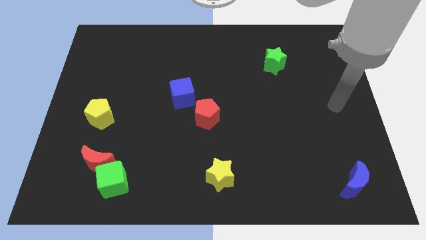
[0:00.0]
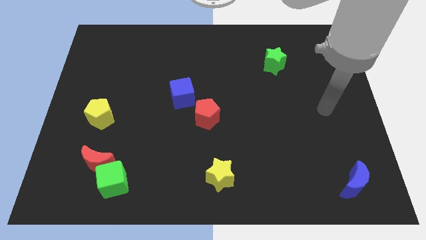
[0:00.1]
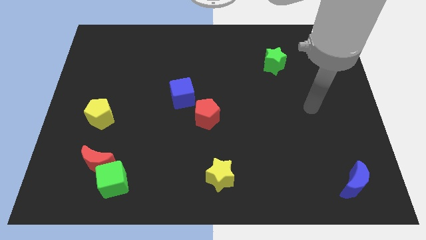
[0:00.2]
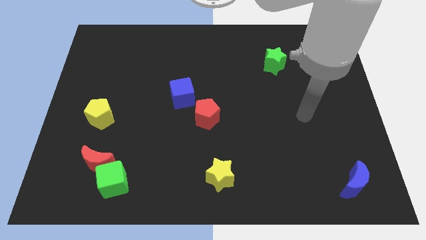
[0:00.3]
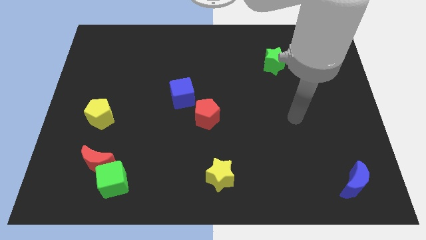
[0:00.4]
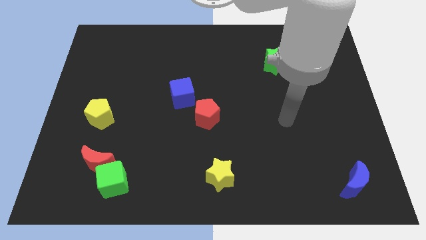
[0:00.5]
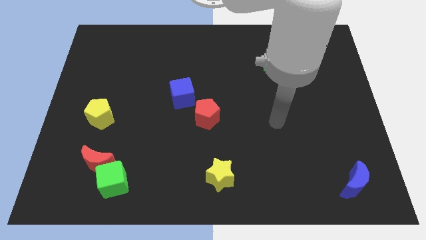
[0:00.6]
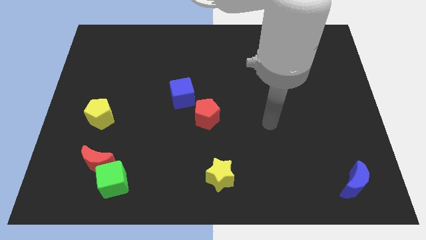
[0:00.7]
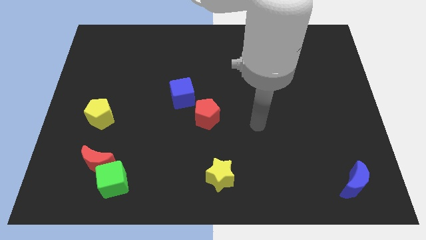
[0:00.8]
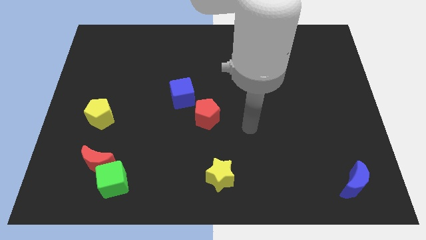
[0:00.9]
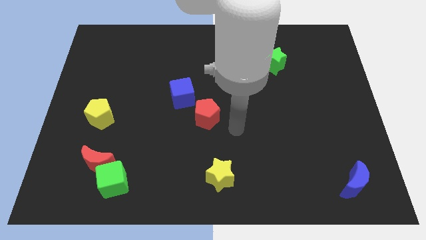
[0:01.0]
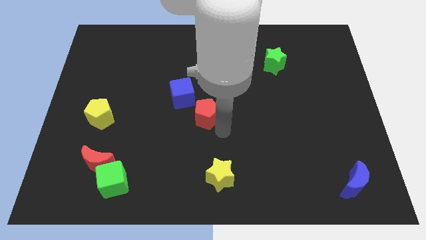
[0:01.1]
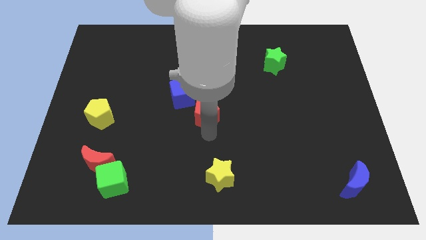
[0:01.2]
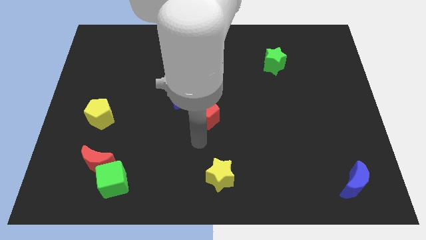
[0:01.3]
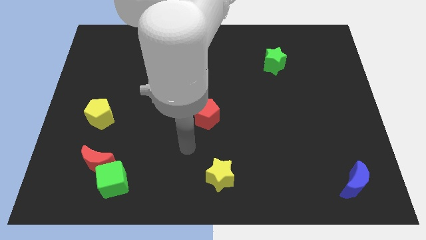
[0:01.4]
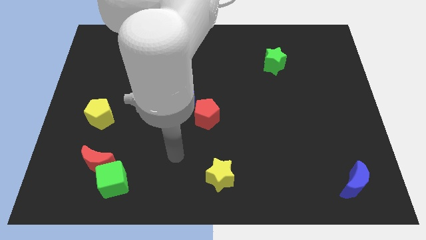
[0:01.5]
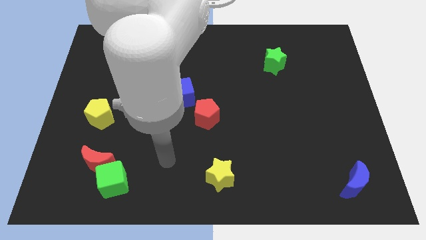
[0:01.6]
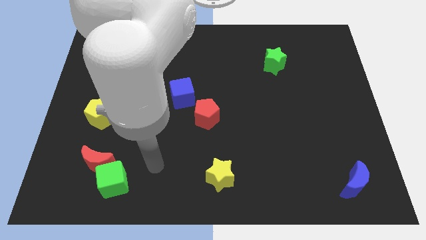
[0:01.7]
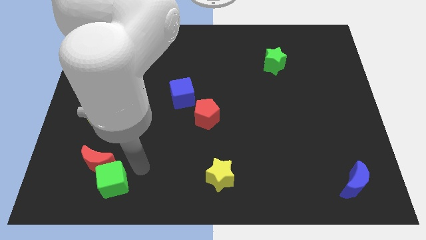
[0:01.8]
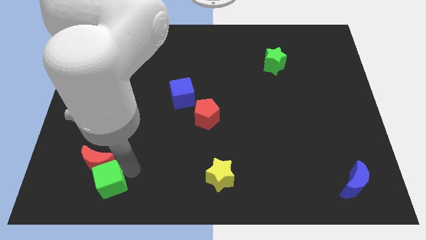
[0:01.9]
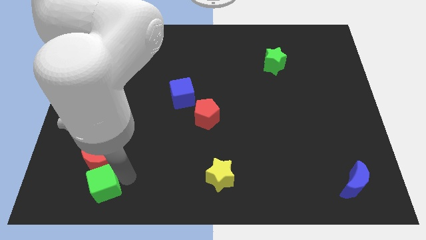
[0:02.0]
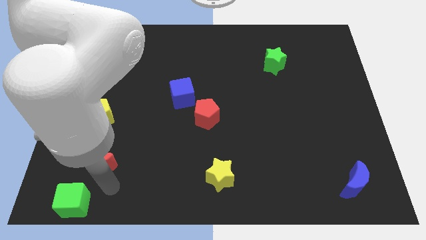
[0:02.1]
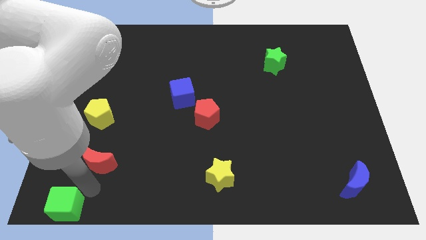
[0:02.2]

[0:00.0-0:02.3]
pull the red moon apart from the green cube

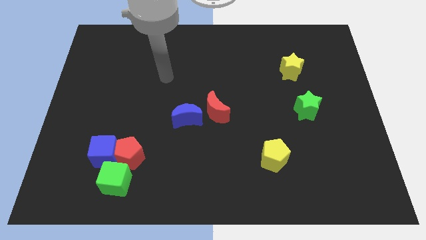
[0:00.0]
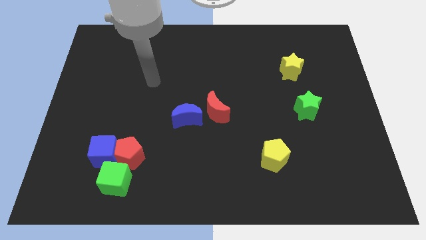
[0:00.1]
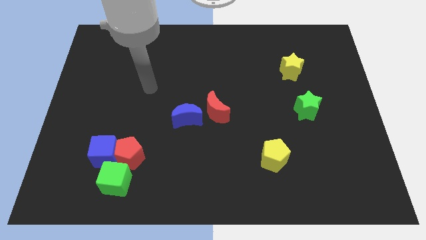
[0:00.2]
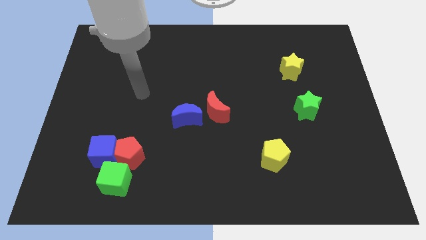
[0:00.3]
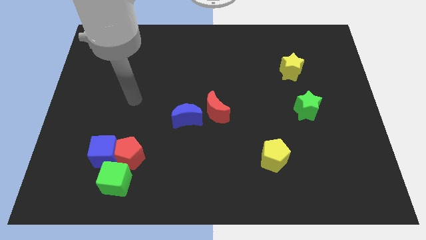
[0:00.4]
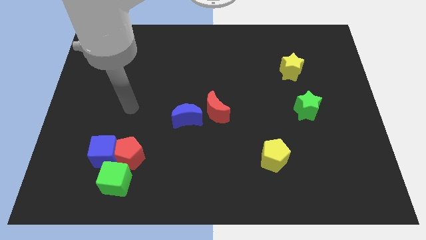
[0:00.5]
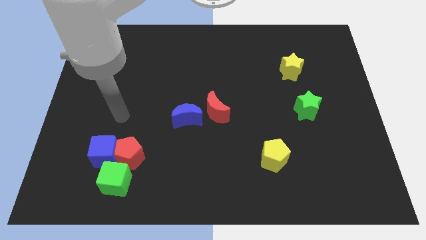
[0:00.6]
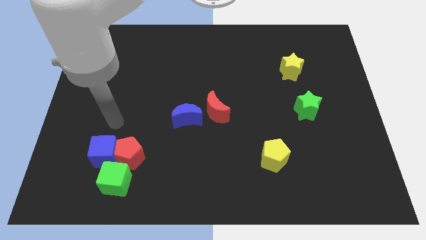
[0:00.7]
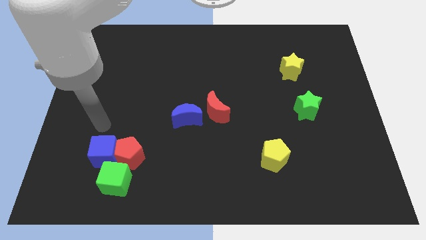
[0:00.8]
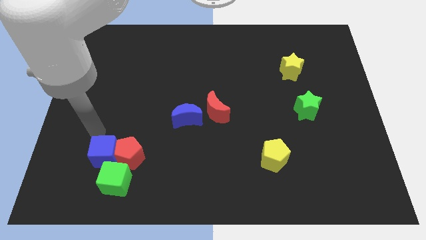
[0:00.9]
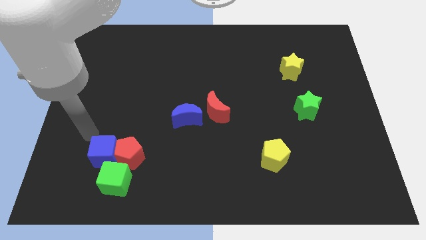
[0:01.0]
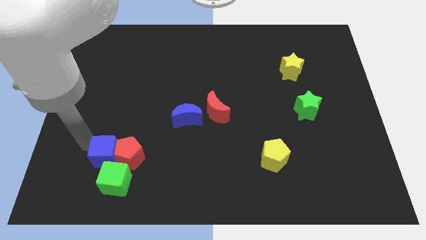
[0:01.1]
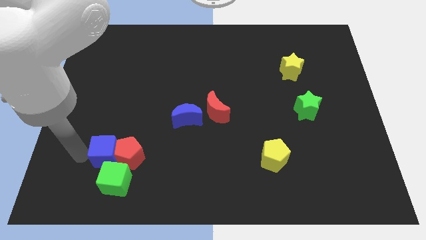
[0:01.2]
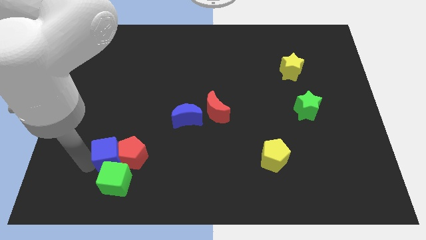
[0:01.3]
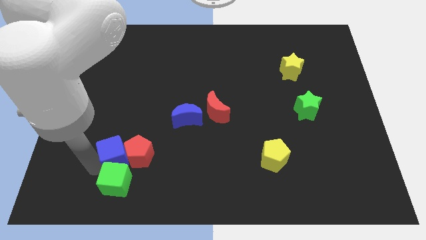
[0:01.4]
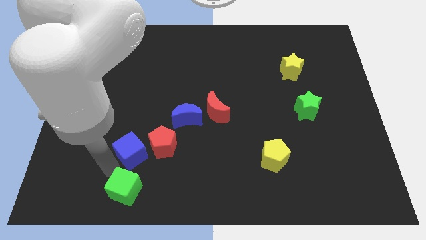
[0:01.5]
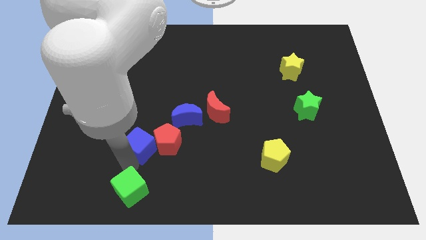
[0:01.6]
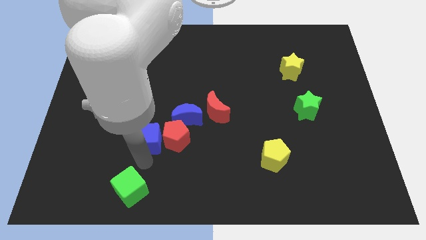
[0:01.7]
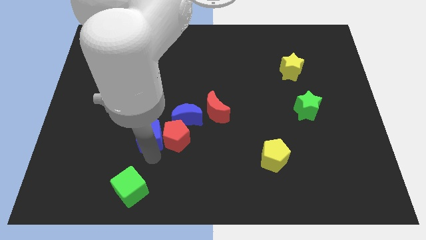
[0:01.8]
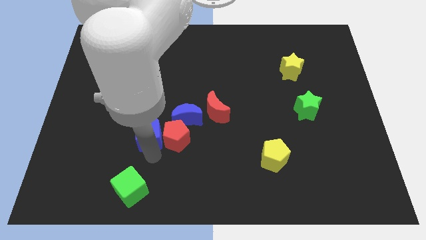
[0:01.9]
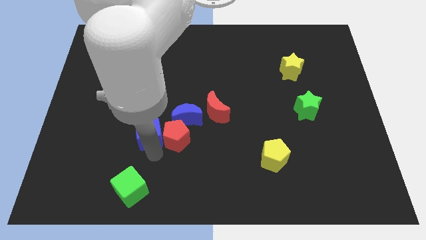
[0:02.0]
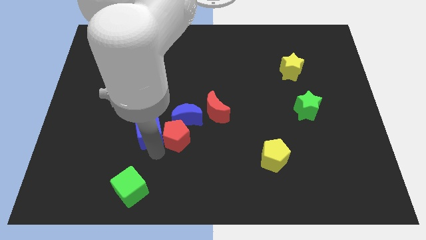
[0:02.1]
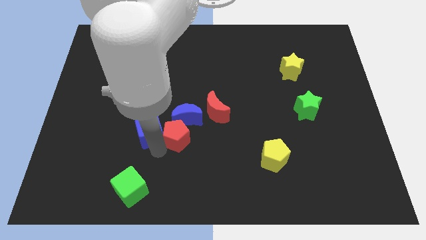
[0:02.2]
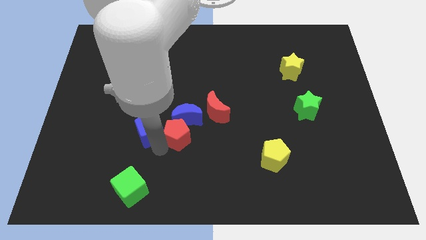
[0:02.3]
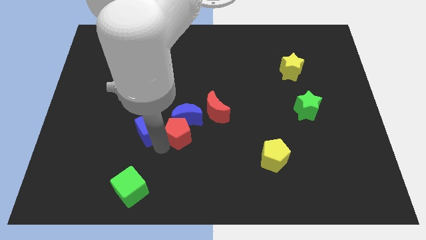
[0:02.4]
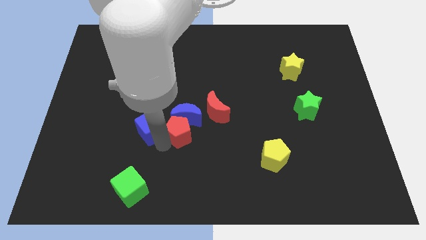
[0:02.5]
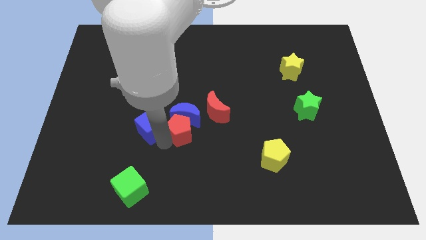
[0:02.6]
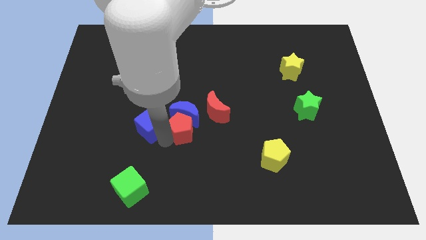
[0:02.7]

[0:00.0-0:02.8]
separate the red pentagon from the blue cube and green cube

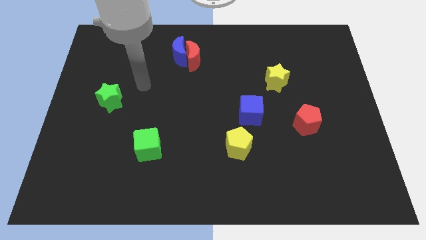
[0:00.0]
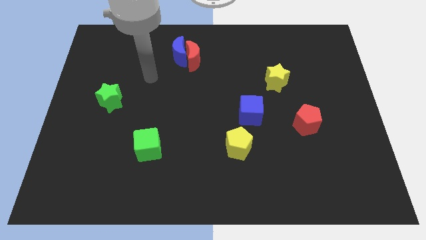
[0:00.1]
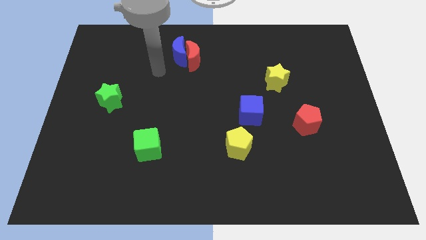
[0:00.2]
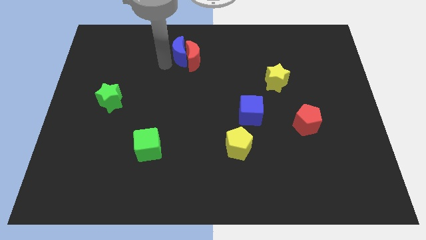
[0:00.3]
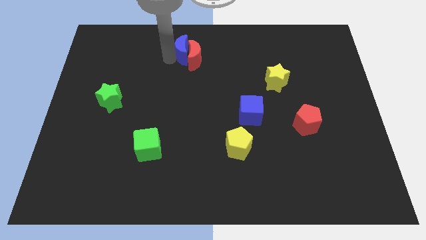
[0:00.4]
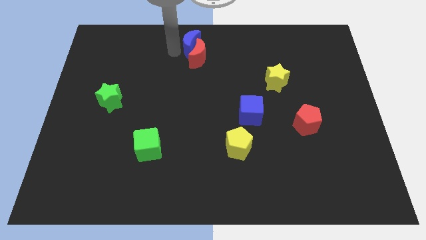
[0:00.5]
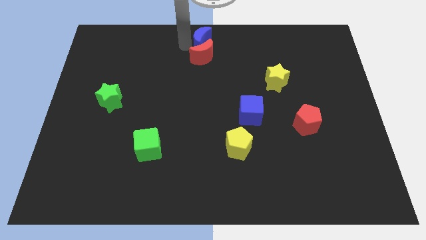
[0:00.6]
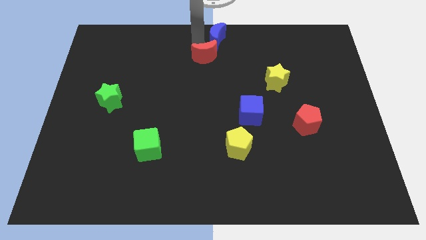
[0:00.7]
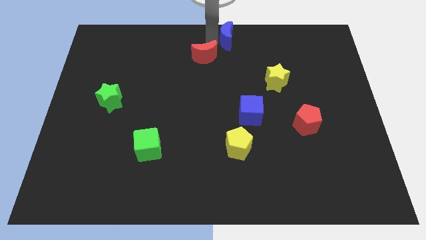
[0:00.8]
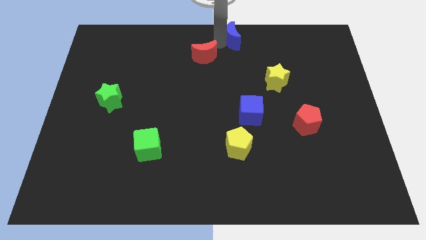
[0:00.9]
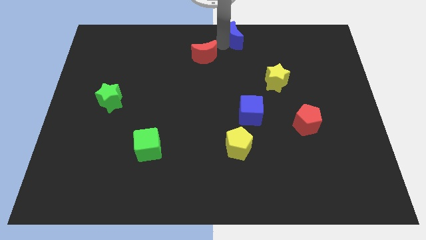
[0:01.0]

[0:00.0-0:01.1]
pull the red moon apart from the blue moon

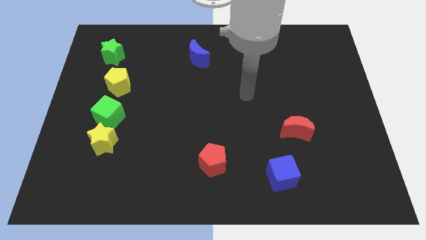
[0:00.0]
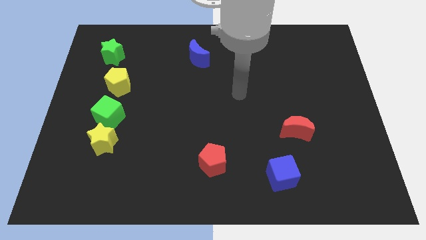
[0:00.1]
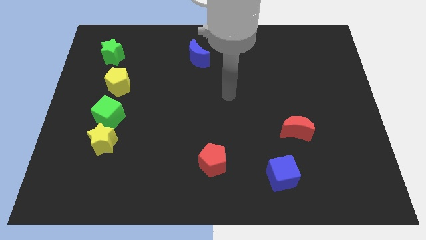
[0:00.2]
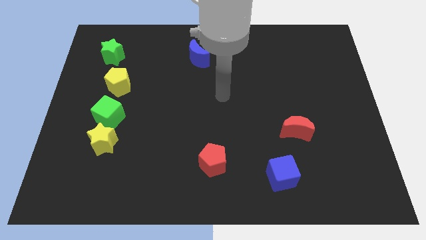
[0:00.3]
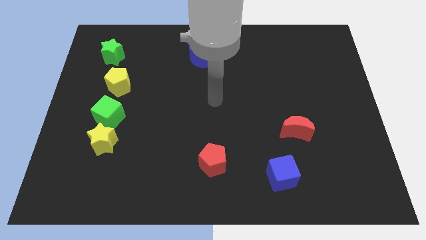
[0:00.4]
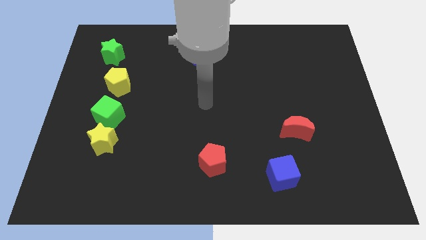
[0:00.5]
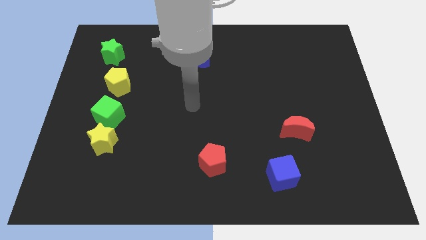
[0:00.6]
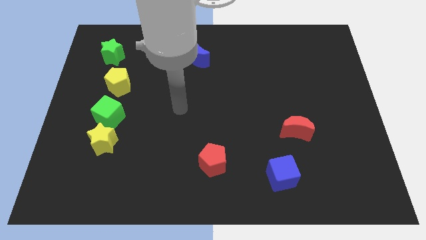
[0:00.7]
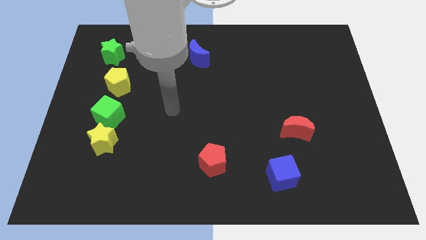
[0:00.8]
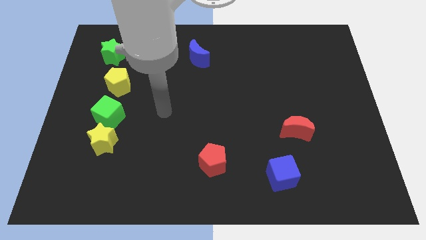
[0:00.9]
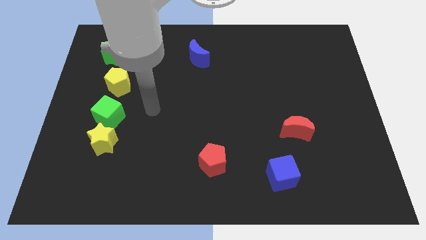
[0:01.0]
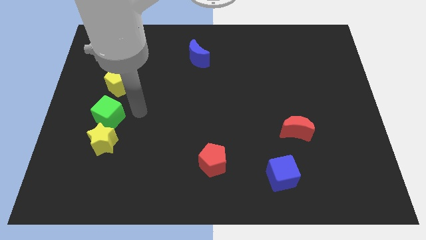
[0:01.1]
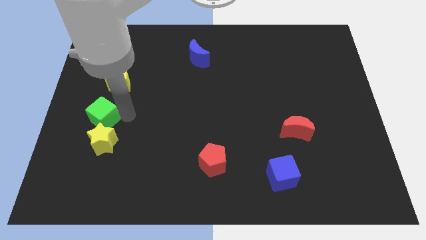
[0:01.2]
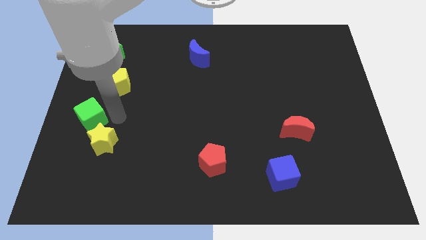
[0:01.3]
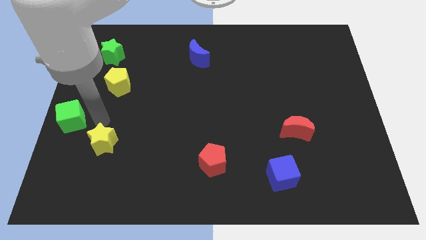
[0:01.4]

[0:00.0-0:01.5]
separate the yellow star from the green cube
